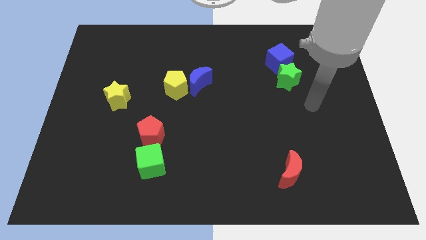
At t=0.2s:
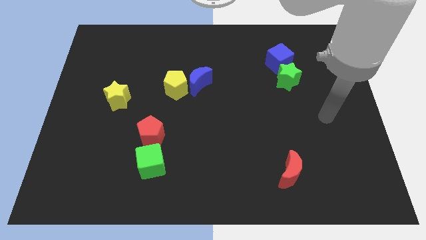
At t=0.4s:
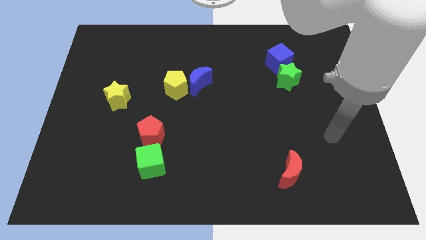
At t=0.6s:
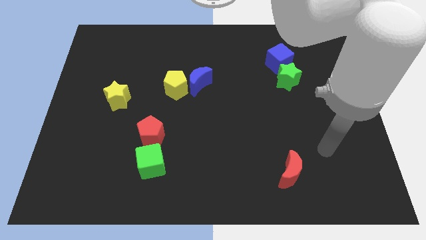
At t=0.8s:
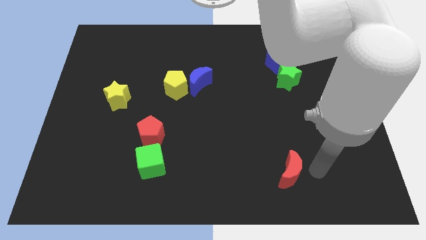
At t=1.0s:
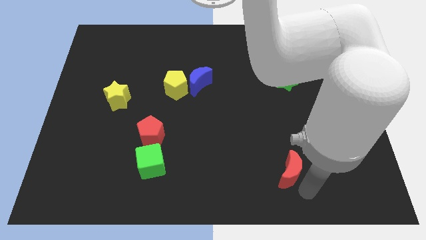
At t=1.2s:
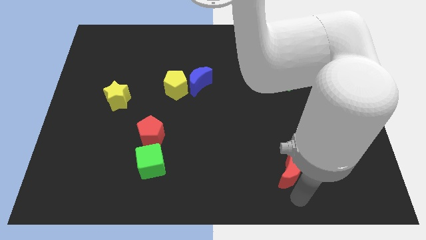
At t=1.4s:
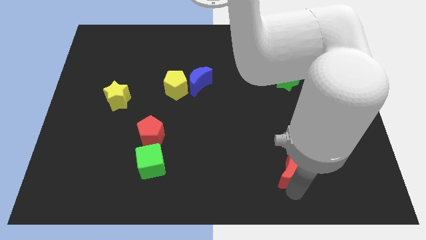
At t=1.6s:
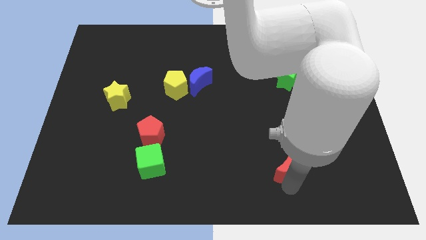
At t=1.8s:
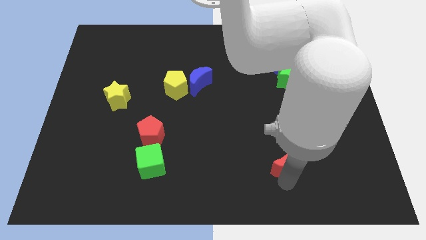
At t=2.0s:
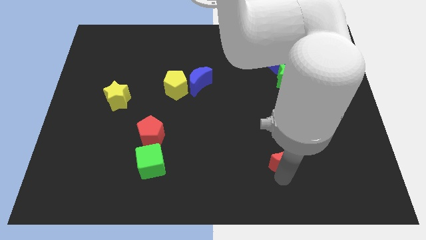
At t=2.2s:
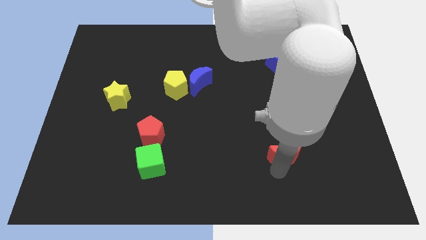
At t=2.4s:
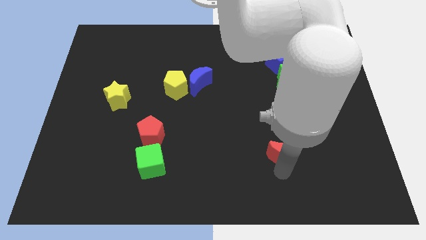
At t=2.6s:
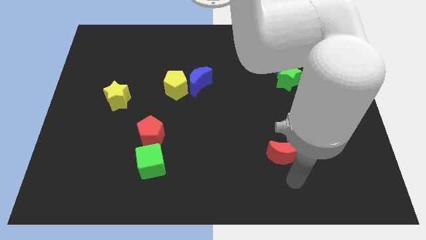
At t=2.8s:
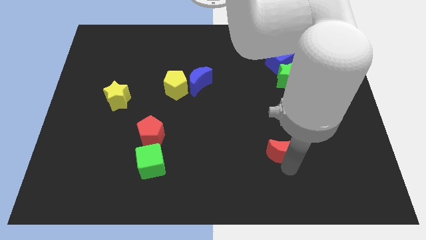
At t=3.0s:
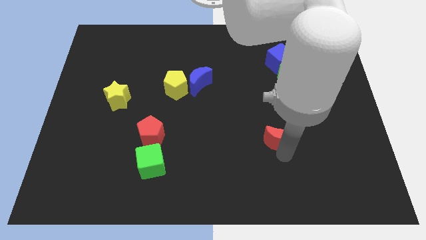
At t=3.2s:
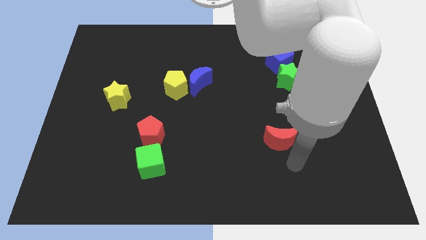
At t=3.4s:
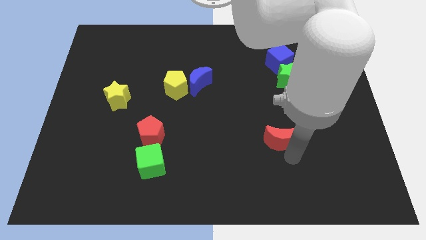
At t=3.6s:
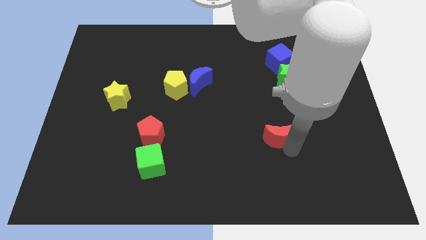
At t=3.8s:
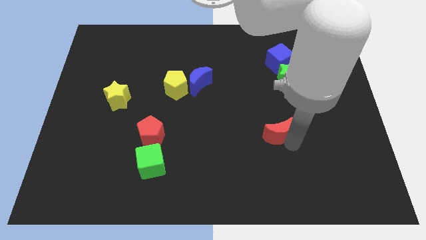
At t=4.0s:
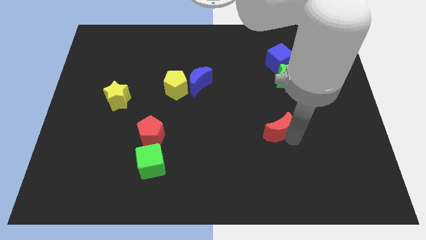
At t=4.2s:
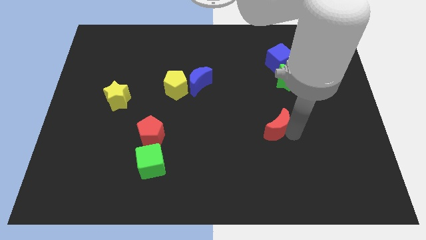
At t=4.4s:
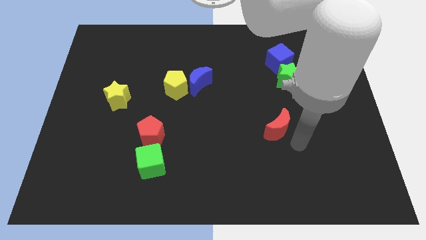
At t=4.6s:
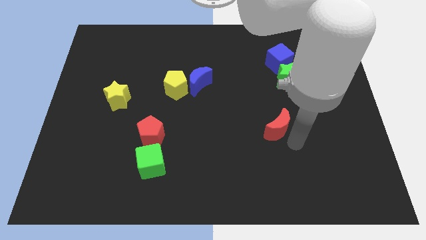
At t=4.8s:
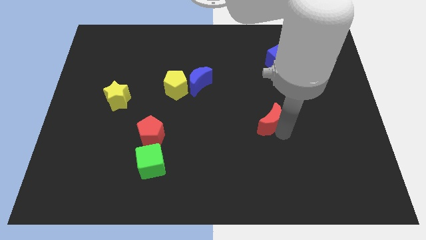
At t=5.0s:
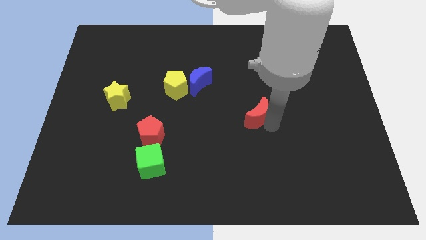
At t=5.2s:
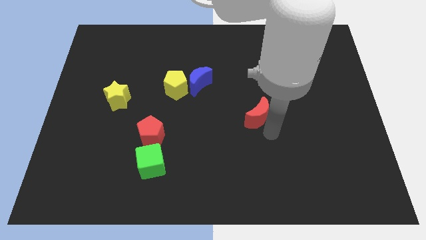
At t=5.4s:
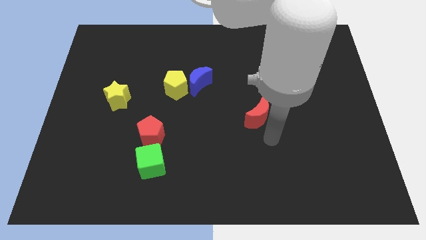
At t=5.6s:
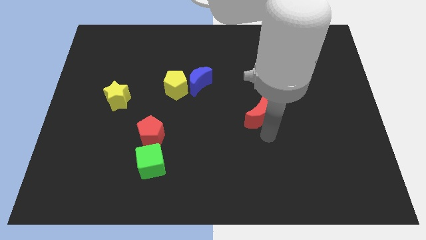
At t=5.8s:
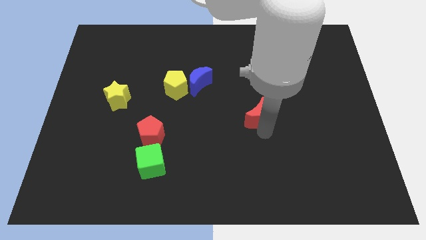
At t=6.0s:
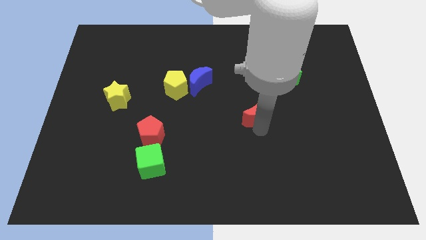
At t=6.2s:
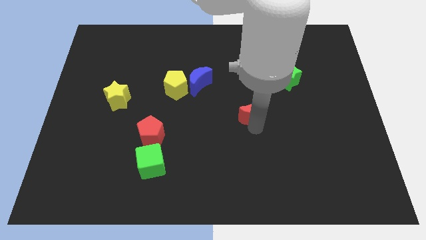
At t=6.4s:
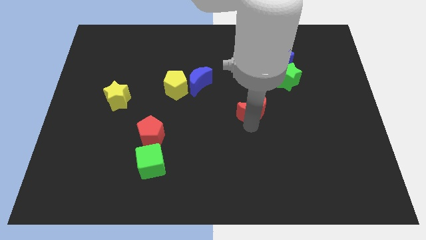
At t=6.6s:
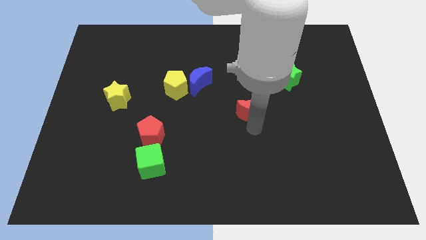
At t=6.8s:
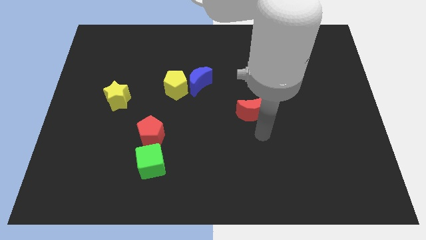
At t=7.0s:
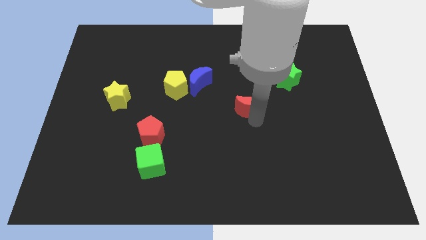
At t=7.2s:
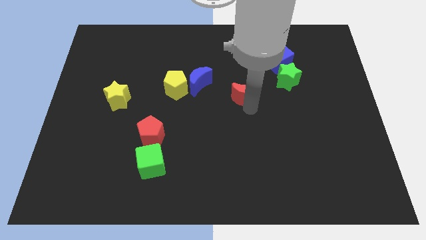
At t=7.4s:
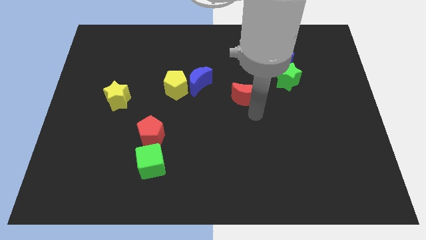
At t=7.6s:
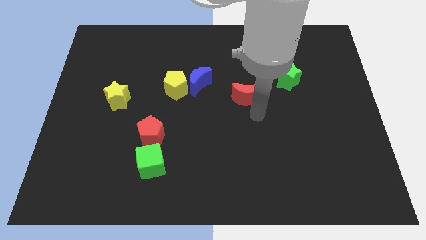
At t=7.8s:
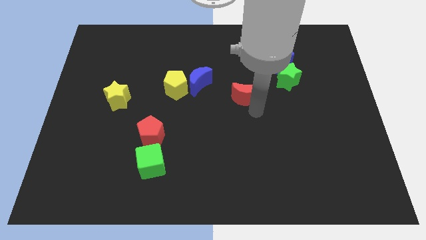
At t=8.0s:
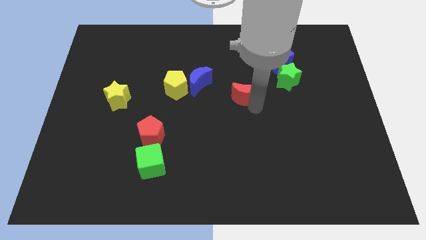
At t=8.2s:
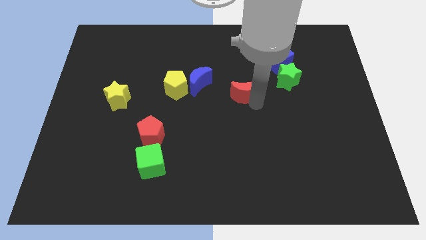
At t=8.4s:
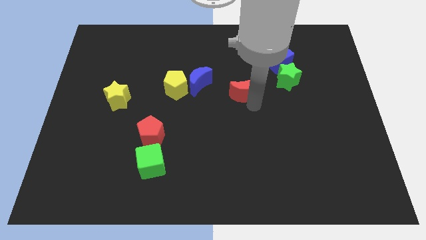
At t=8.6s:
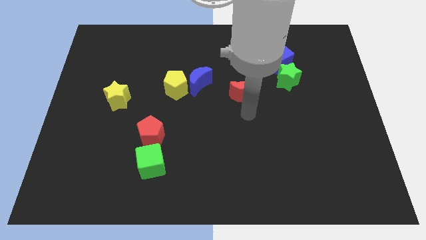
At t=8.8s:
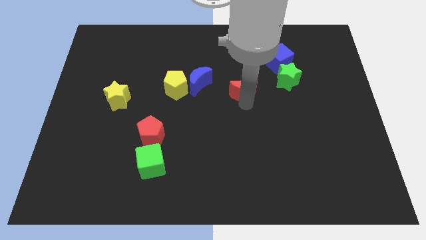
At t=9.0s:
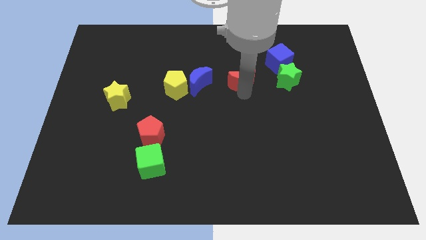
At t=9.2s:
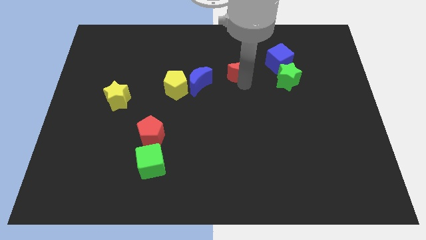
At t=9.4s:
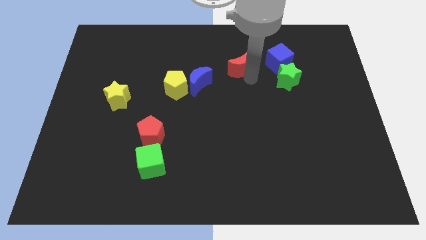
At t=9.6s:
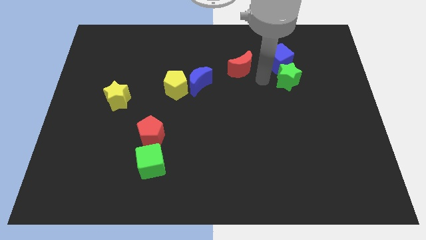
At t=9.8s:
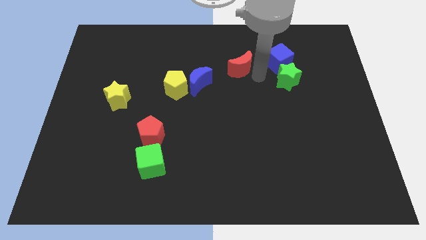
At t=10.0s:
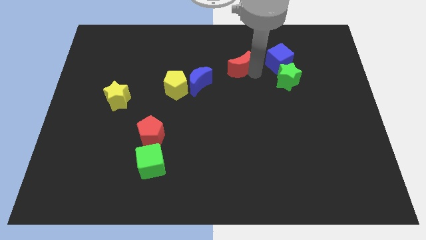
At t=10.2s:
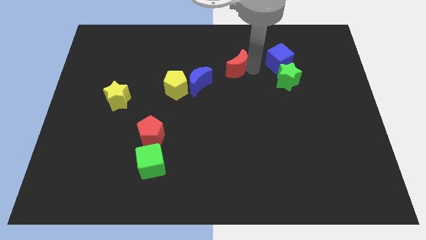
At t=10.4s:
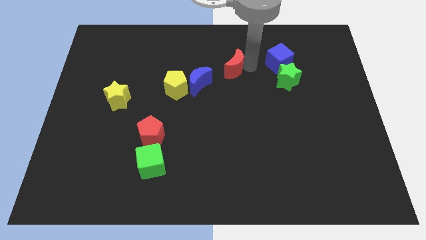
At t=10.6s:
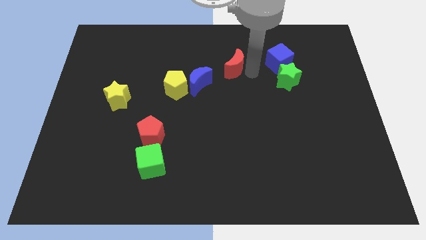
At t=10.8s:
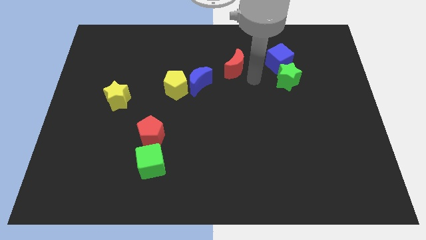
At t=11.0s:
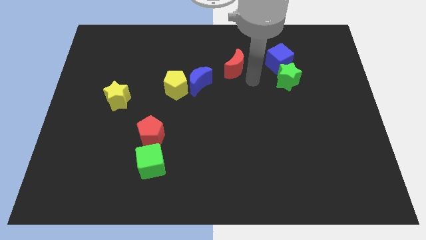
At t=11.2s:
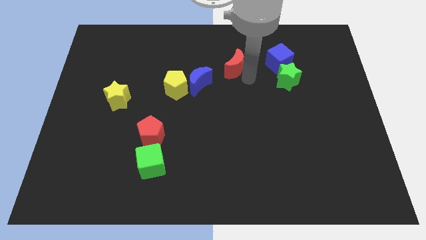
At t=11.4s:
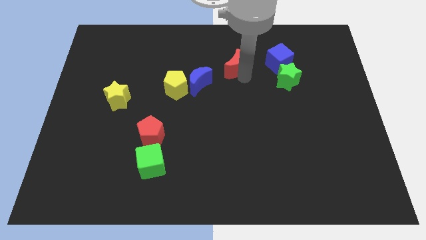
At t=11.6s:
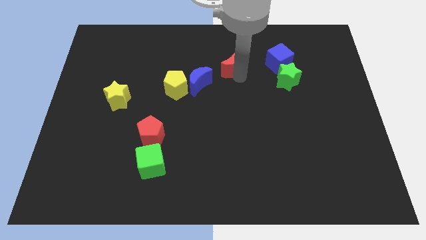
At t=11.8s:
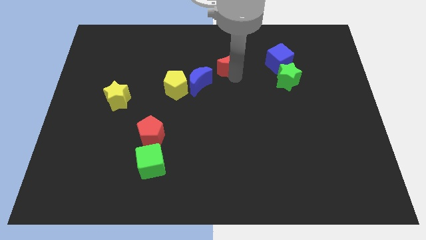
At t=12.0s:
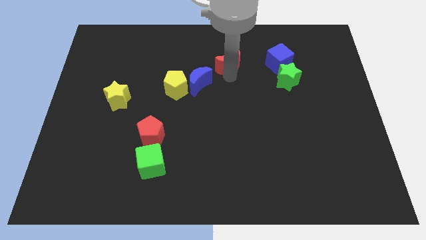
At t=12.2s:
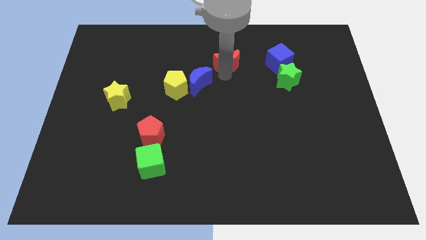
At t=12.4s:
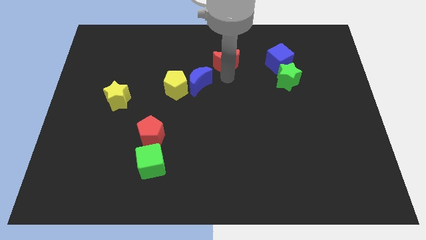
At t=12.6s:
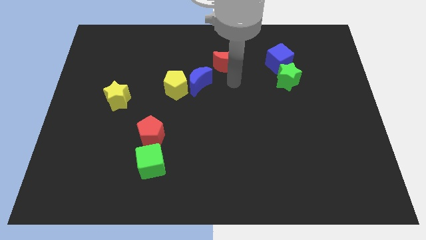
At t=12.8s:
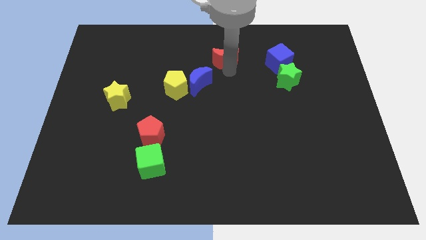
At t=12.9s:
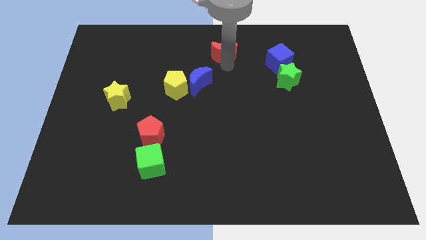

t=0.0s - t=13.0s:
push the red moon to the towards your base
